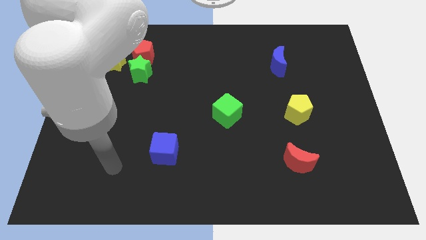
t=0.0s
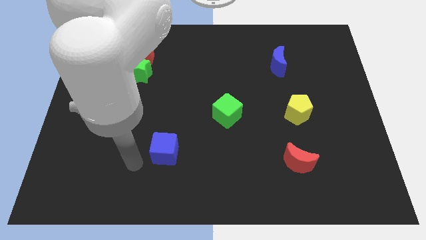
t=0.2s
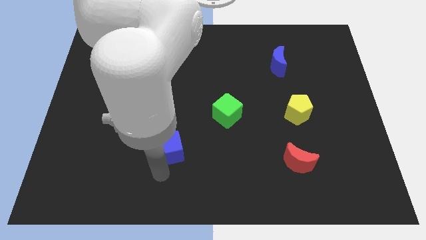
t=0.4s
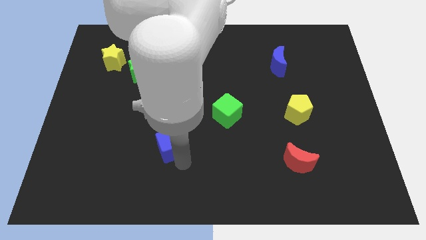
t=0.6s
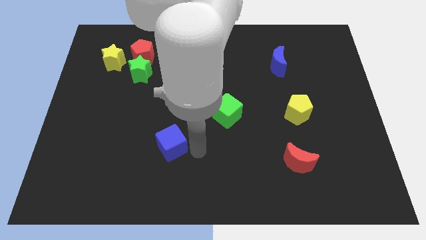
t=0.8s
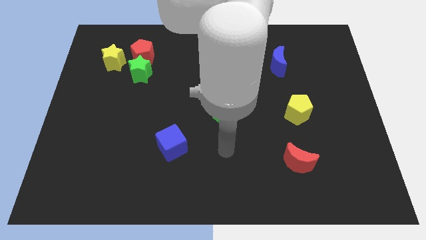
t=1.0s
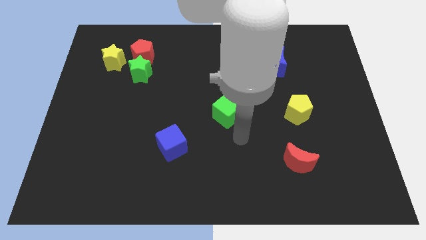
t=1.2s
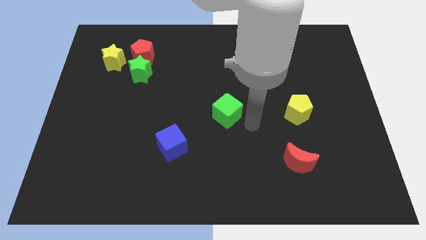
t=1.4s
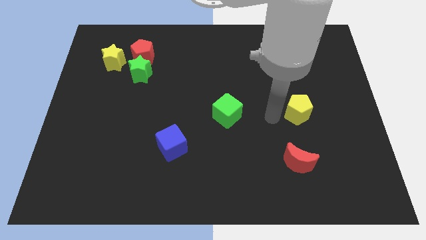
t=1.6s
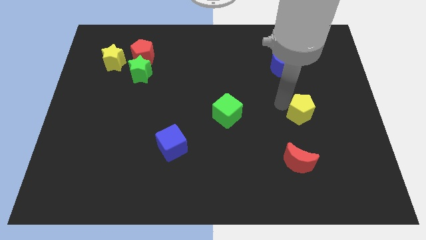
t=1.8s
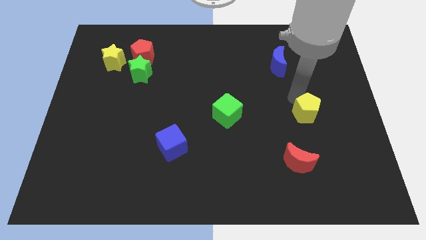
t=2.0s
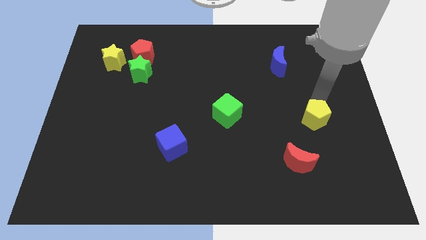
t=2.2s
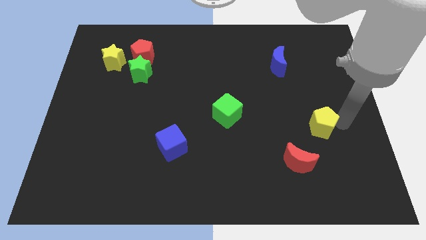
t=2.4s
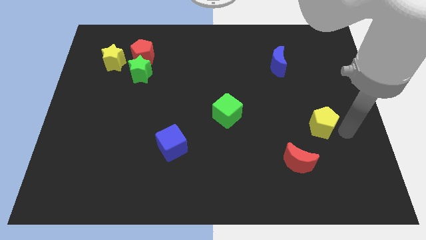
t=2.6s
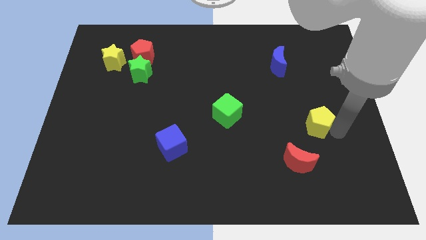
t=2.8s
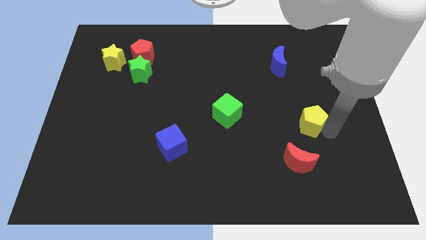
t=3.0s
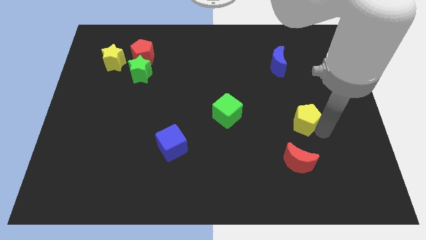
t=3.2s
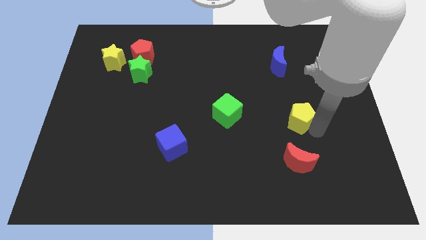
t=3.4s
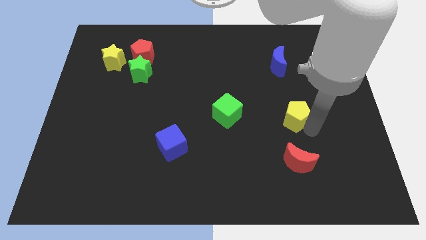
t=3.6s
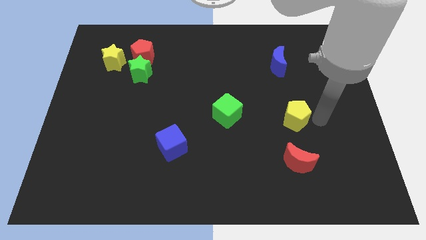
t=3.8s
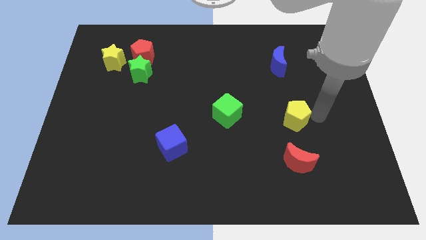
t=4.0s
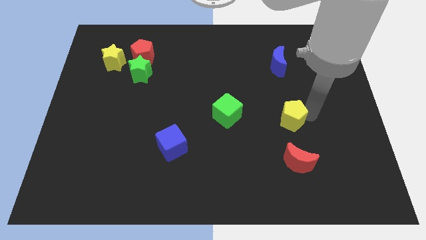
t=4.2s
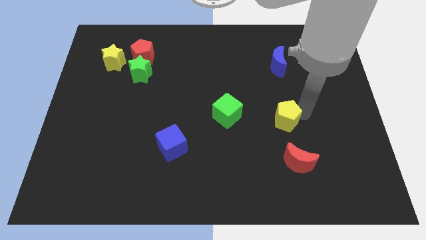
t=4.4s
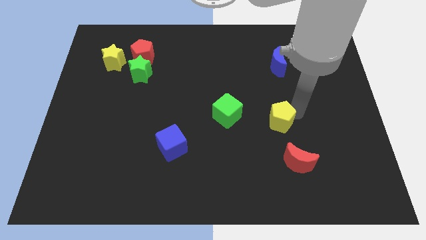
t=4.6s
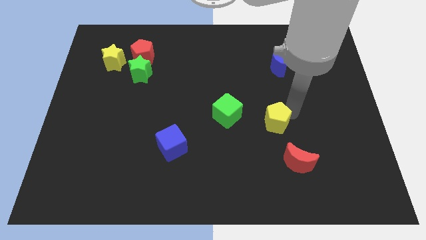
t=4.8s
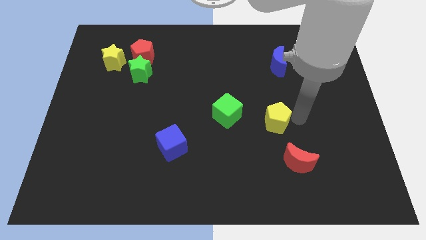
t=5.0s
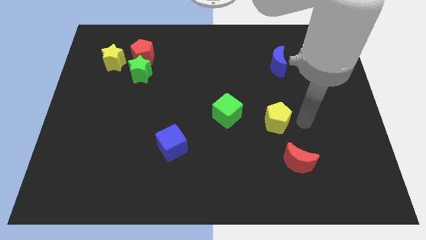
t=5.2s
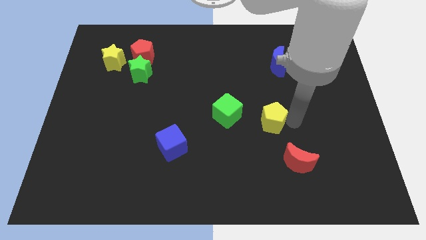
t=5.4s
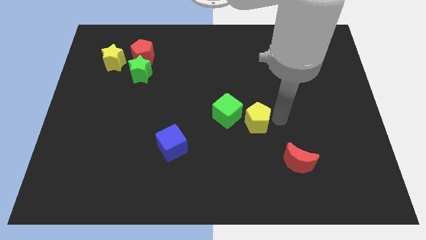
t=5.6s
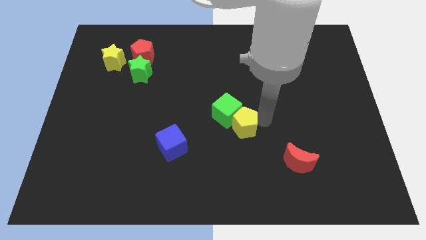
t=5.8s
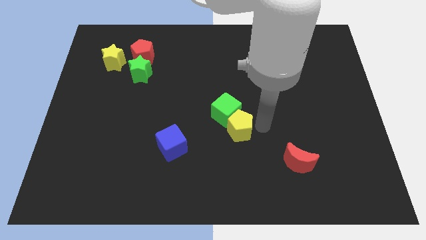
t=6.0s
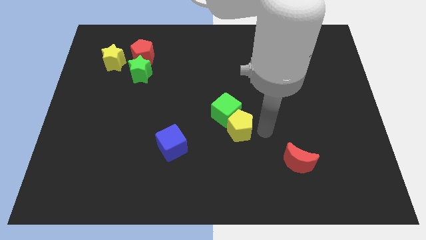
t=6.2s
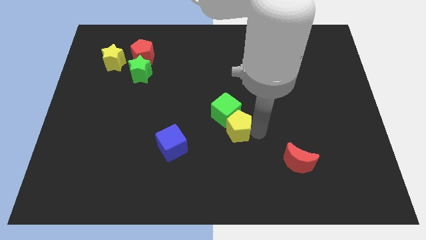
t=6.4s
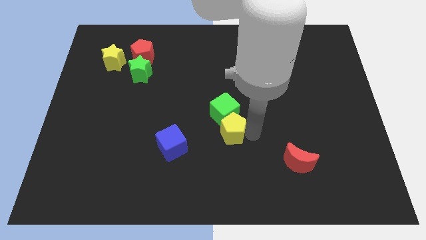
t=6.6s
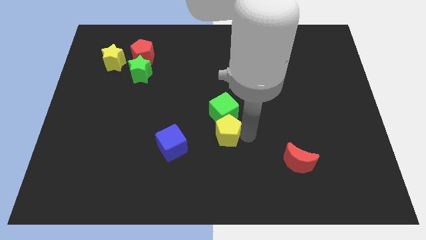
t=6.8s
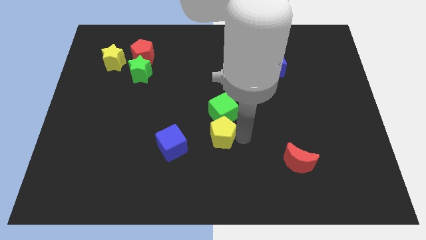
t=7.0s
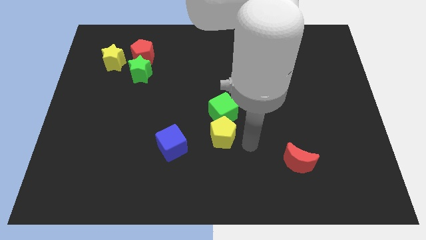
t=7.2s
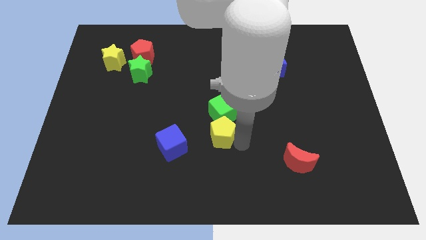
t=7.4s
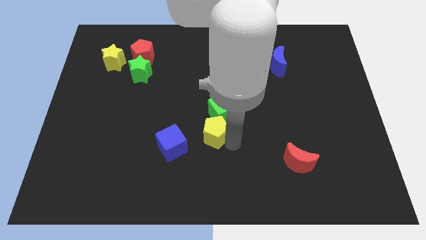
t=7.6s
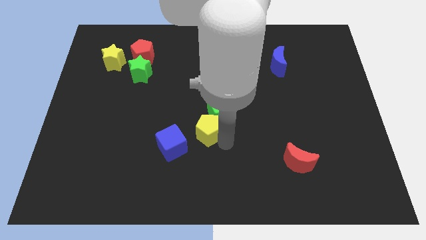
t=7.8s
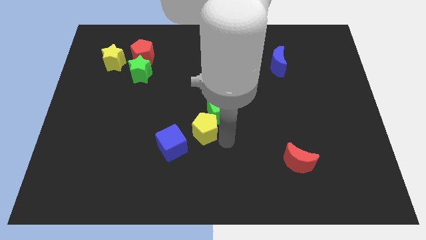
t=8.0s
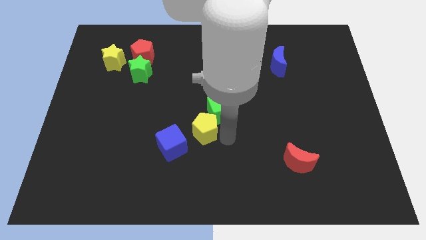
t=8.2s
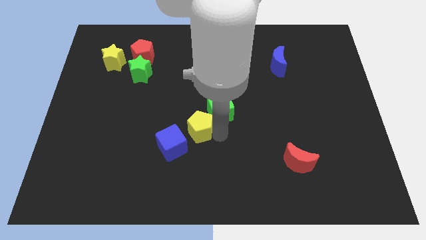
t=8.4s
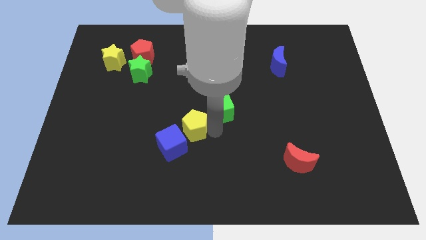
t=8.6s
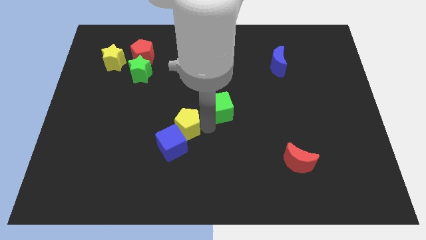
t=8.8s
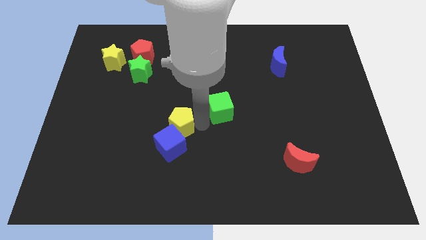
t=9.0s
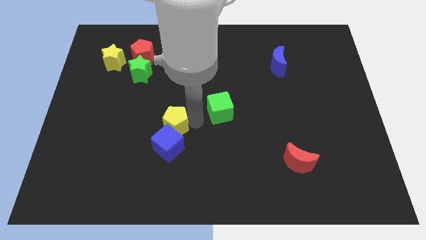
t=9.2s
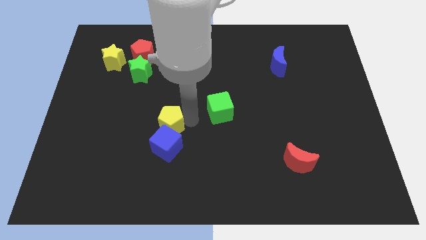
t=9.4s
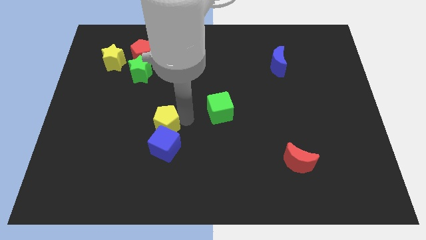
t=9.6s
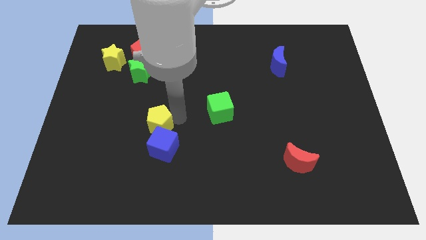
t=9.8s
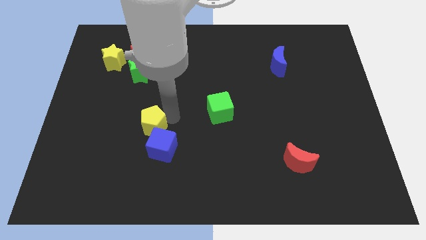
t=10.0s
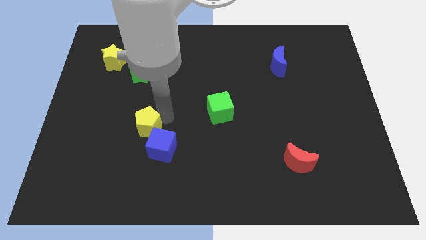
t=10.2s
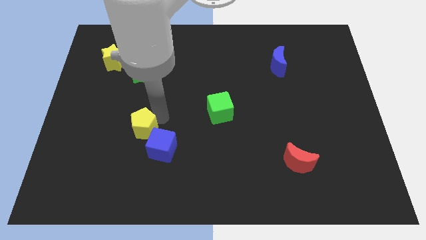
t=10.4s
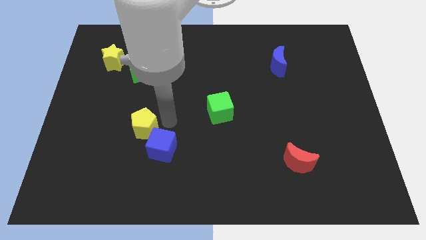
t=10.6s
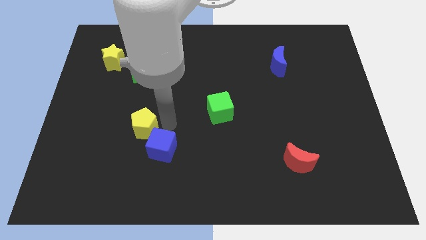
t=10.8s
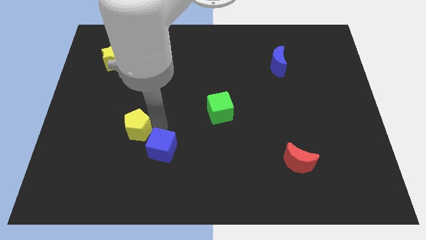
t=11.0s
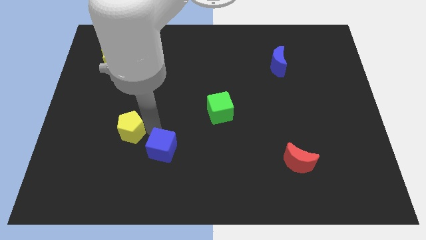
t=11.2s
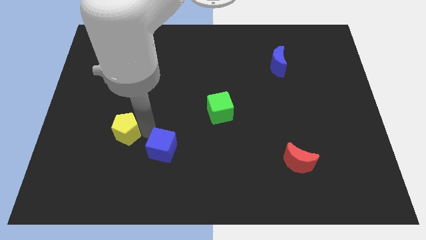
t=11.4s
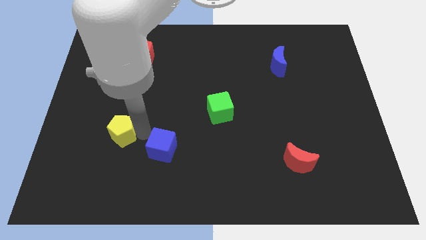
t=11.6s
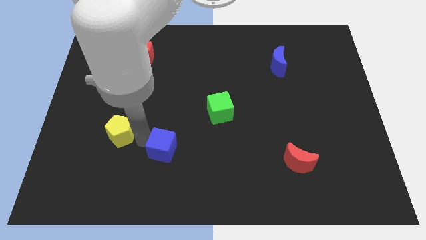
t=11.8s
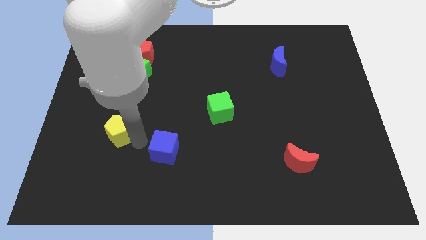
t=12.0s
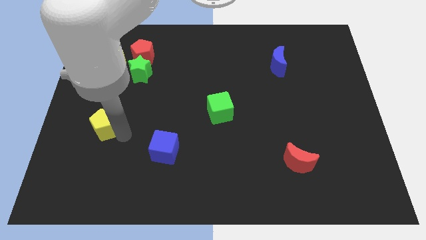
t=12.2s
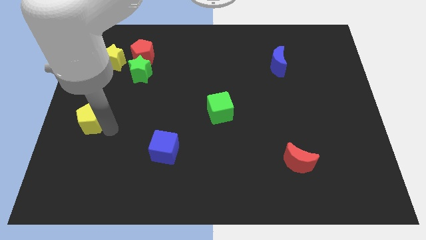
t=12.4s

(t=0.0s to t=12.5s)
move the yellow pentagon to the left side

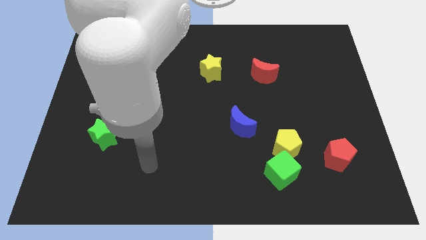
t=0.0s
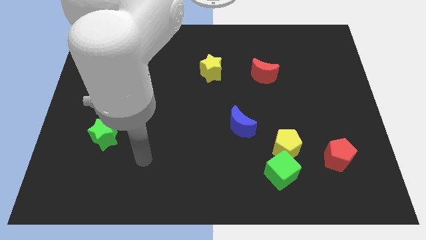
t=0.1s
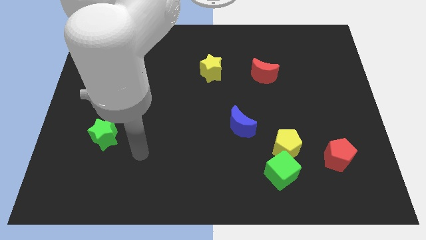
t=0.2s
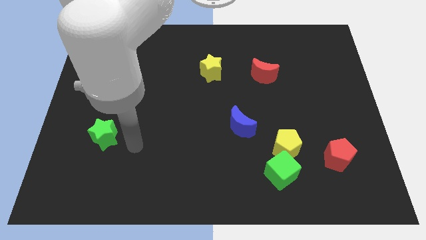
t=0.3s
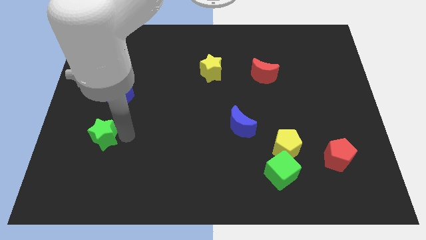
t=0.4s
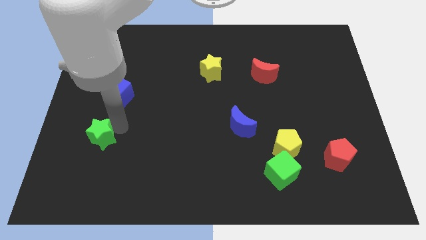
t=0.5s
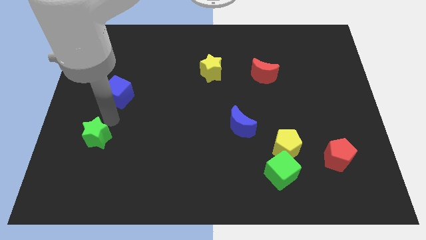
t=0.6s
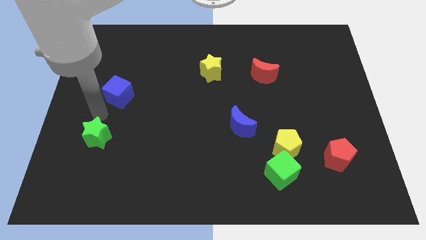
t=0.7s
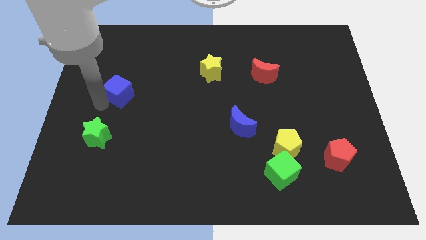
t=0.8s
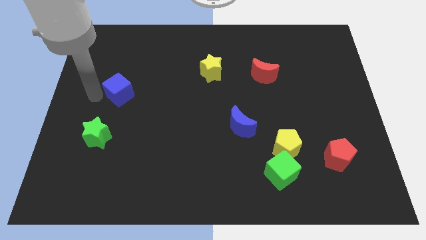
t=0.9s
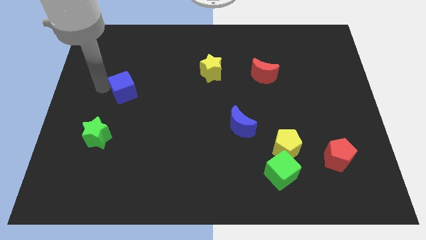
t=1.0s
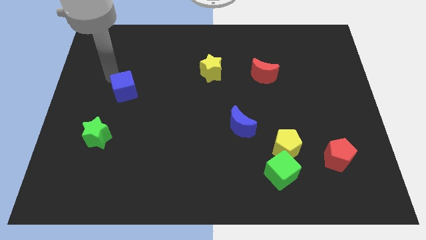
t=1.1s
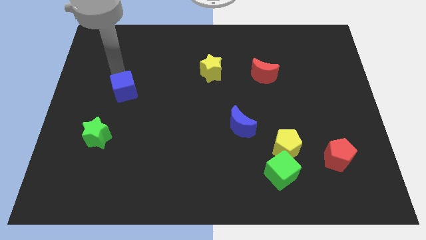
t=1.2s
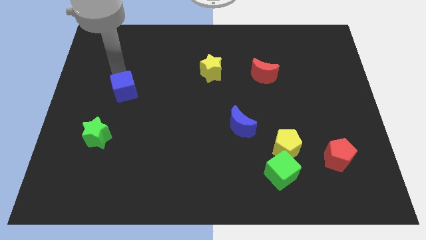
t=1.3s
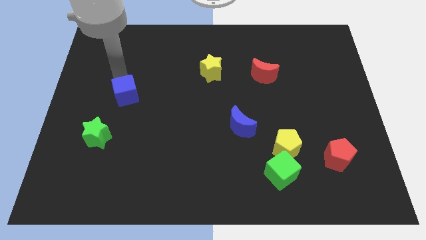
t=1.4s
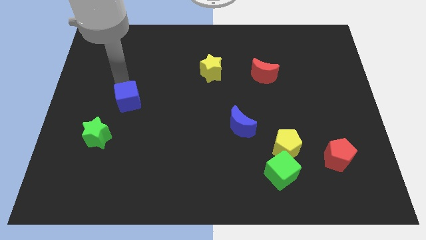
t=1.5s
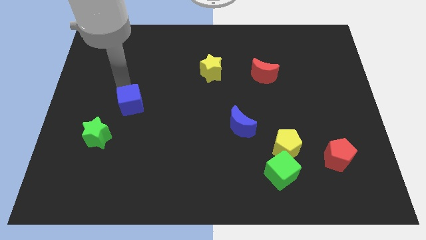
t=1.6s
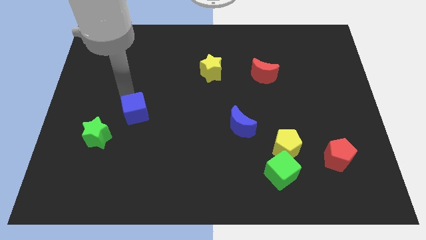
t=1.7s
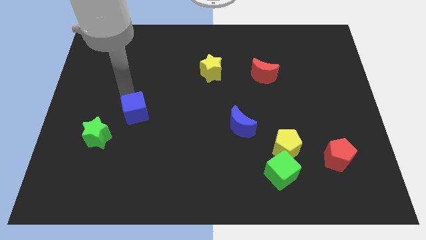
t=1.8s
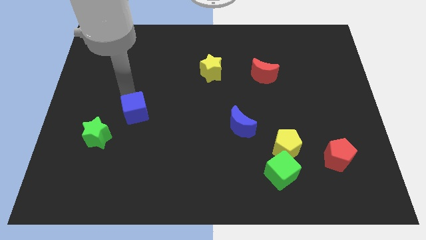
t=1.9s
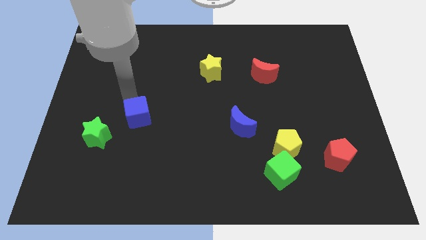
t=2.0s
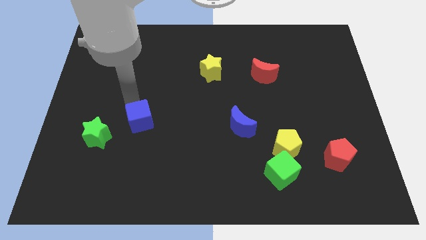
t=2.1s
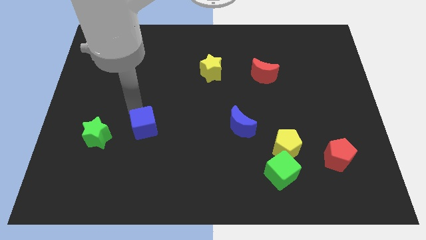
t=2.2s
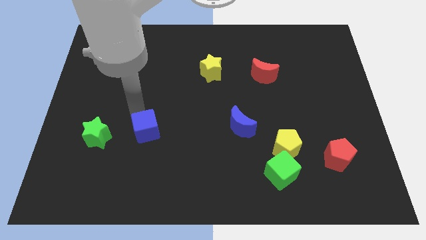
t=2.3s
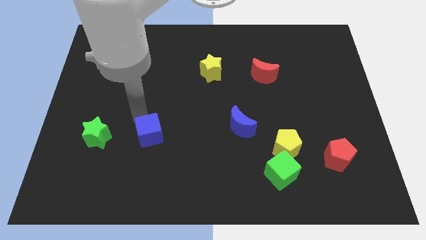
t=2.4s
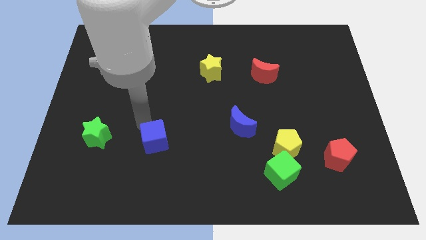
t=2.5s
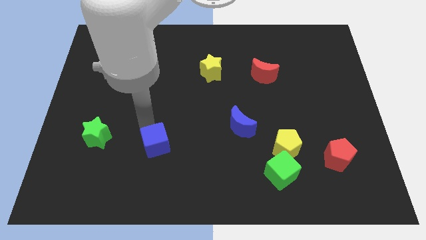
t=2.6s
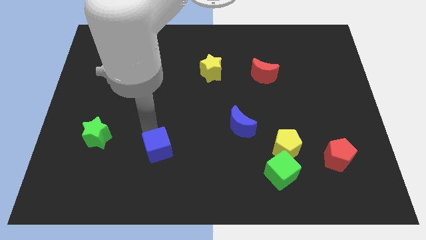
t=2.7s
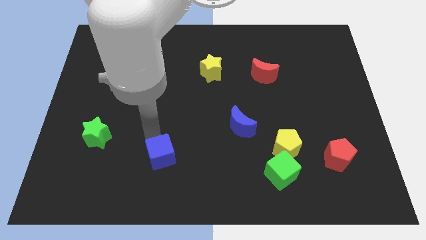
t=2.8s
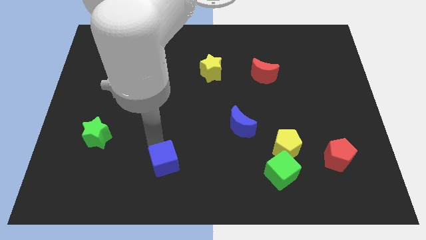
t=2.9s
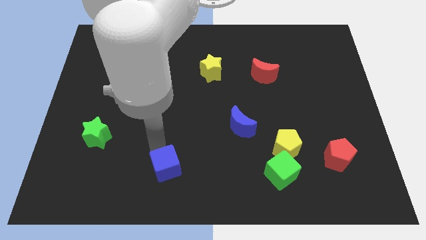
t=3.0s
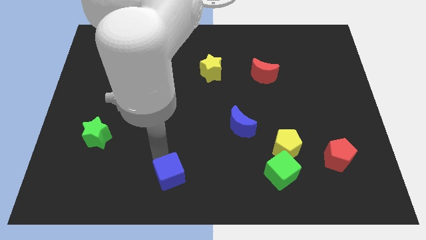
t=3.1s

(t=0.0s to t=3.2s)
put the blue cube to the bottom side
